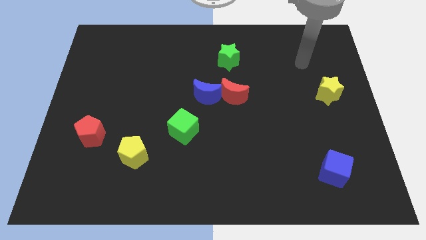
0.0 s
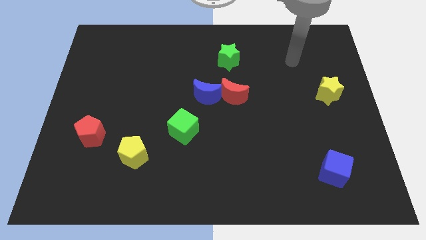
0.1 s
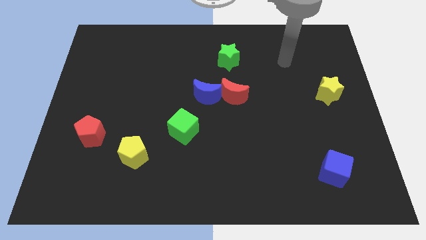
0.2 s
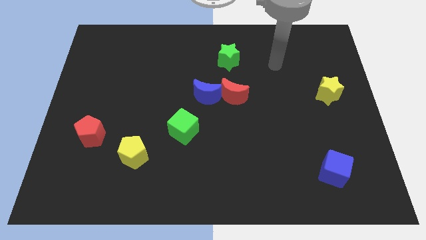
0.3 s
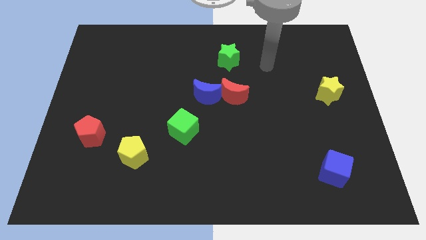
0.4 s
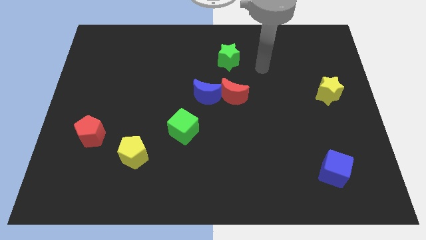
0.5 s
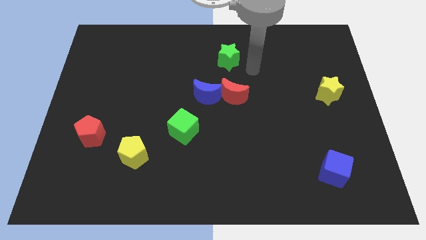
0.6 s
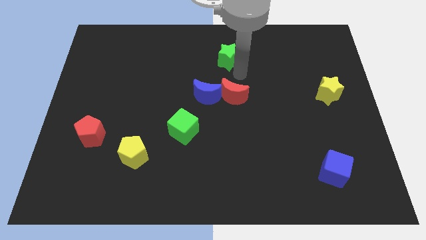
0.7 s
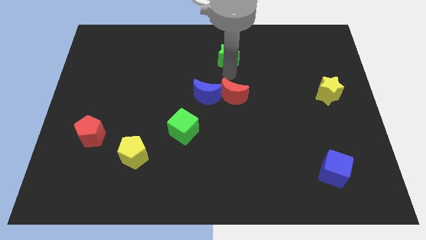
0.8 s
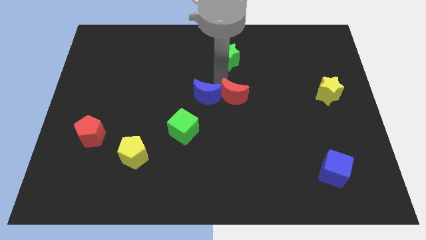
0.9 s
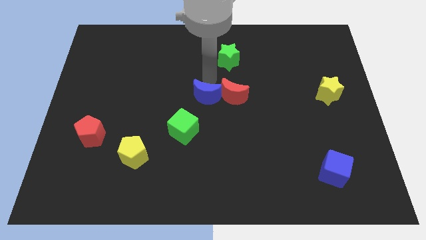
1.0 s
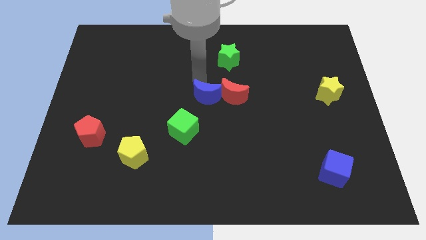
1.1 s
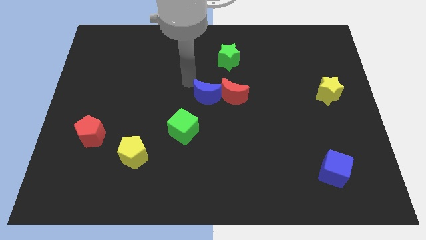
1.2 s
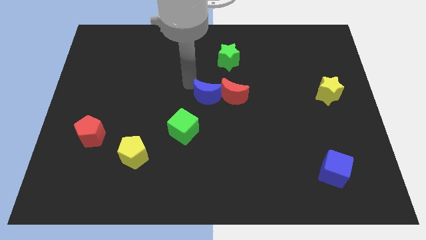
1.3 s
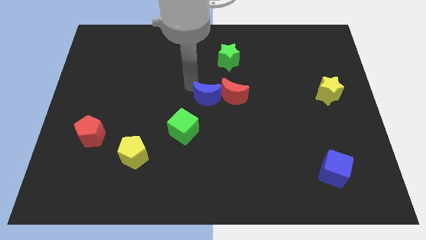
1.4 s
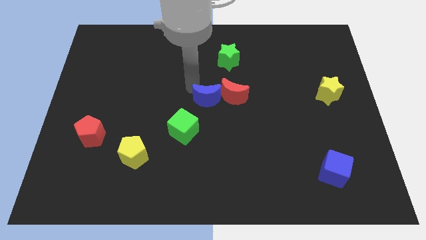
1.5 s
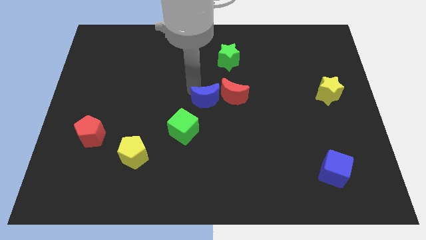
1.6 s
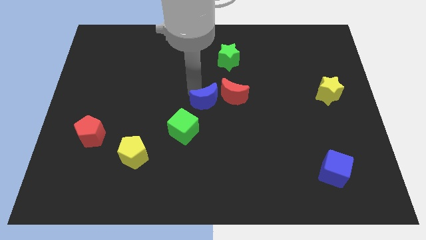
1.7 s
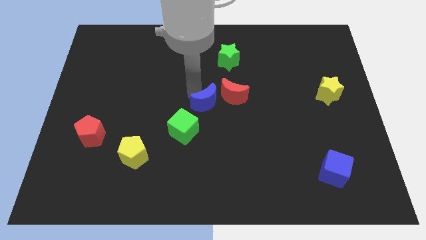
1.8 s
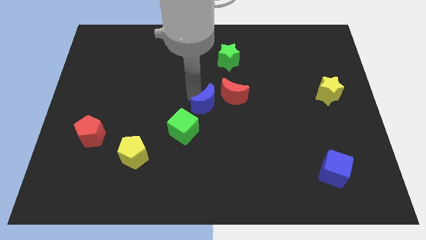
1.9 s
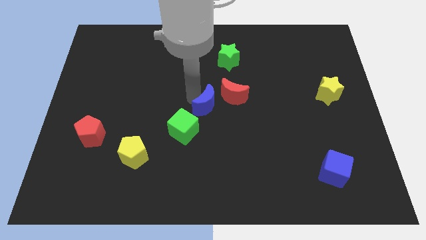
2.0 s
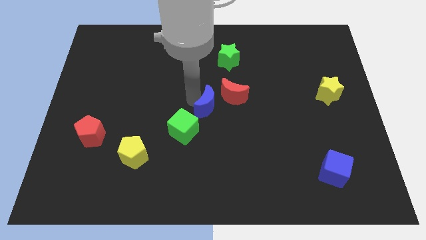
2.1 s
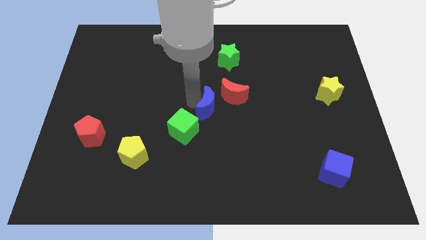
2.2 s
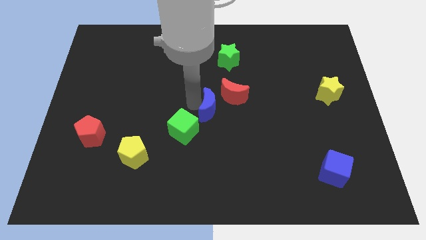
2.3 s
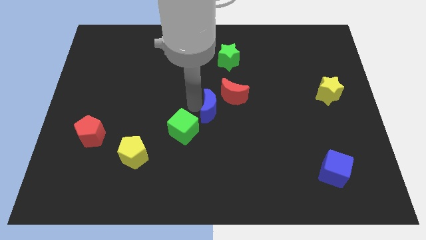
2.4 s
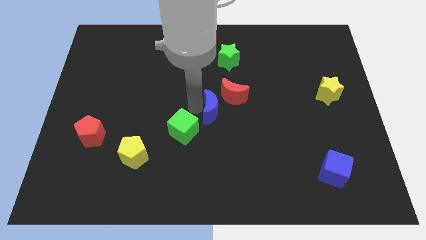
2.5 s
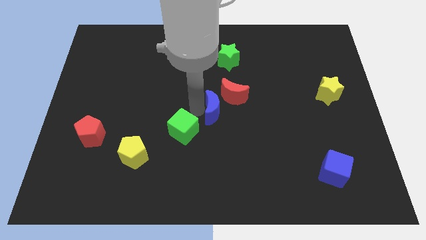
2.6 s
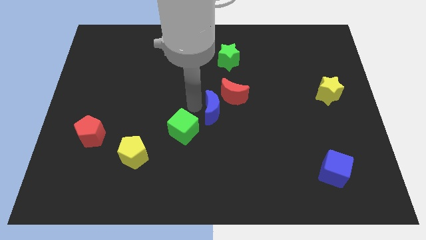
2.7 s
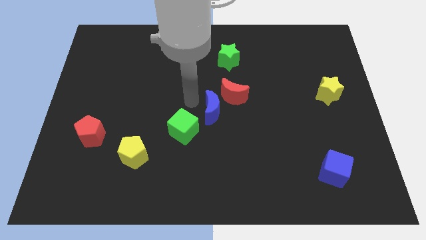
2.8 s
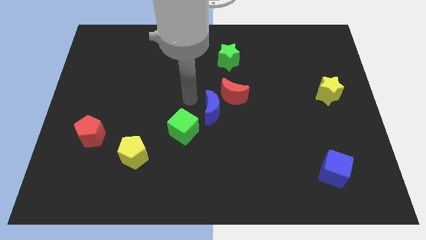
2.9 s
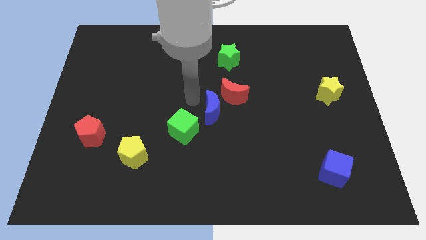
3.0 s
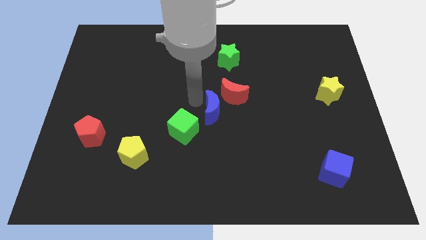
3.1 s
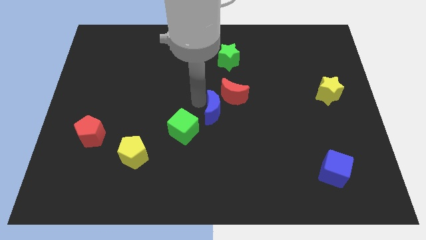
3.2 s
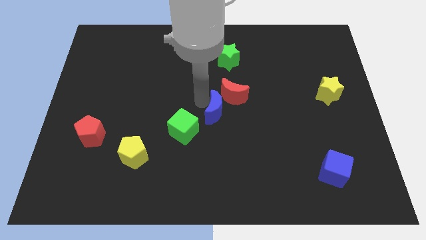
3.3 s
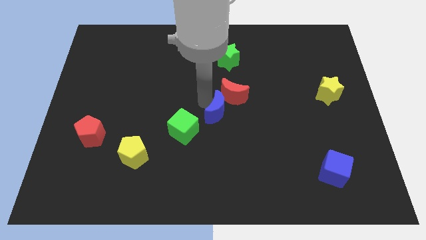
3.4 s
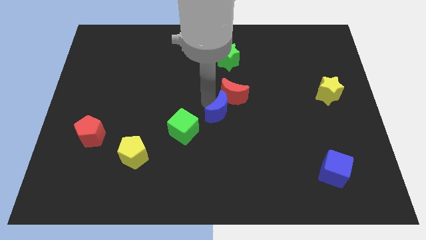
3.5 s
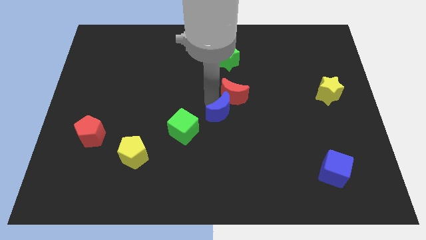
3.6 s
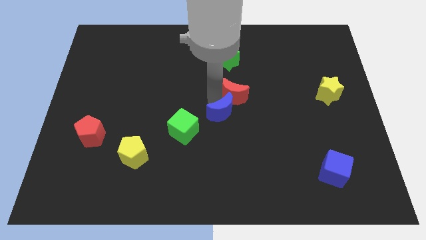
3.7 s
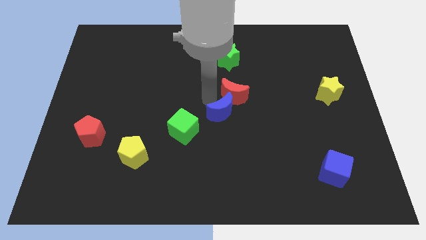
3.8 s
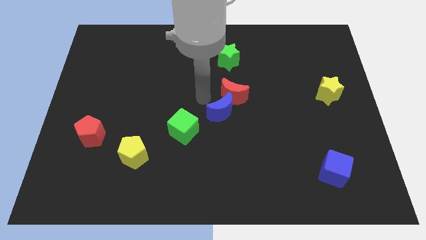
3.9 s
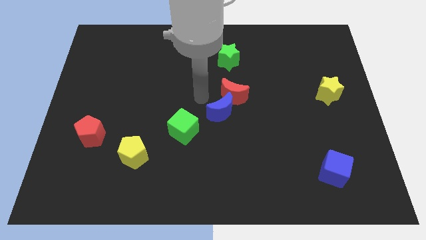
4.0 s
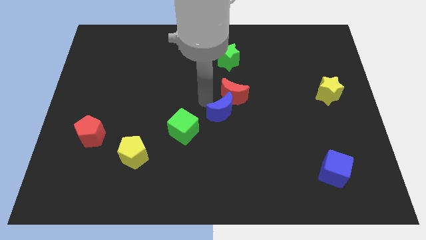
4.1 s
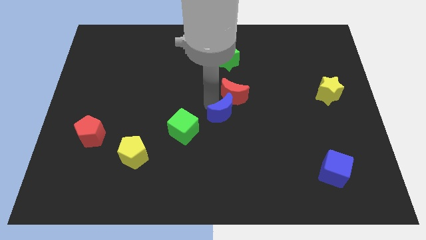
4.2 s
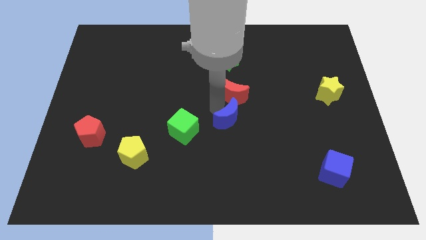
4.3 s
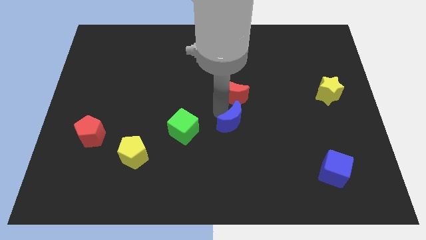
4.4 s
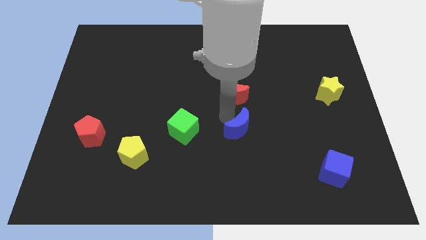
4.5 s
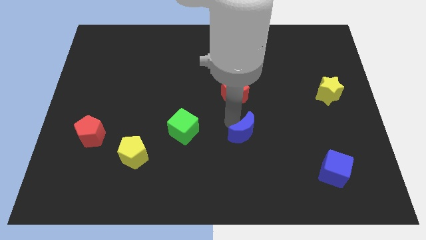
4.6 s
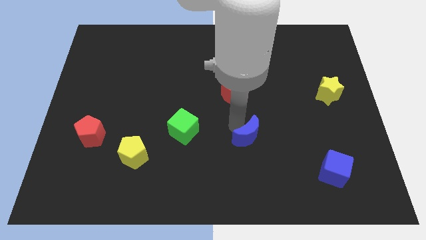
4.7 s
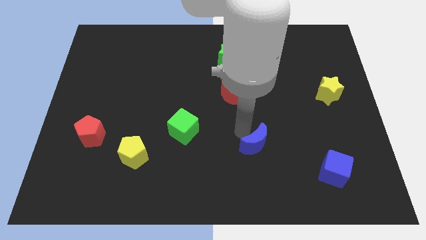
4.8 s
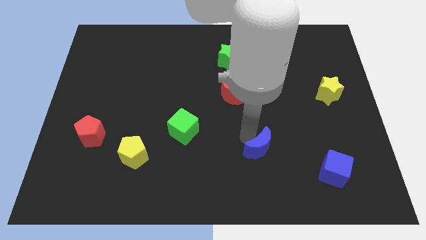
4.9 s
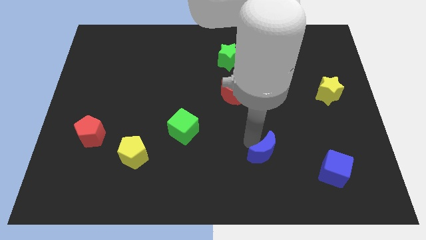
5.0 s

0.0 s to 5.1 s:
move the blue moon down and right

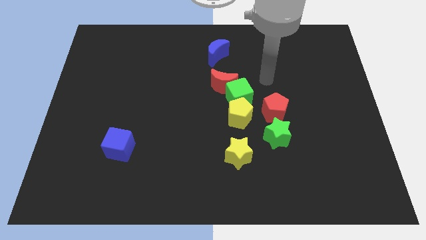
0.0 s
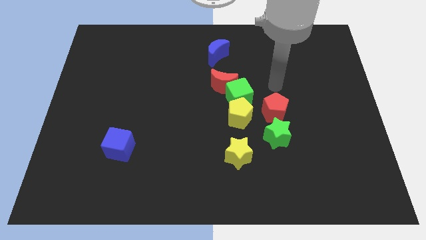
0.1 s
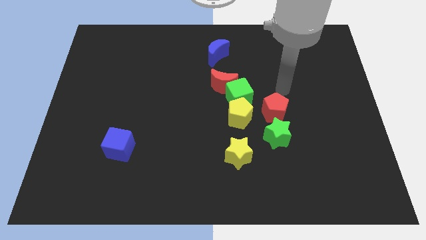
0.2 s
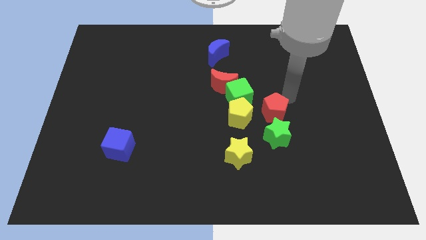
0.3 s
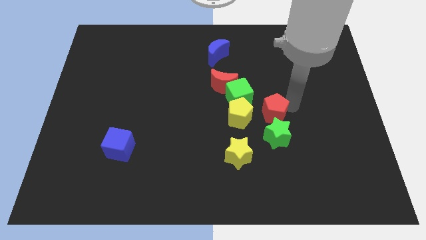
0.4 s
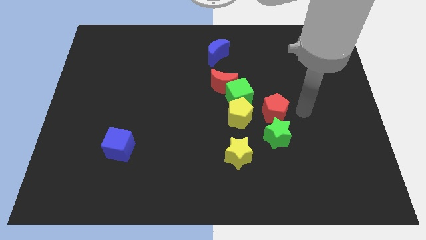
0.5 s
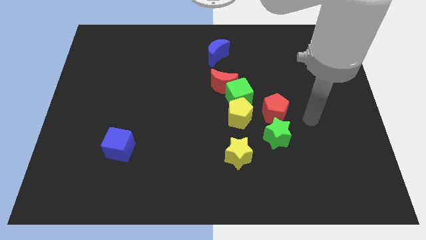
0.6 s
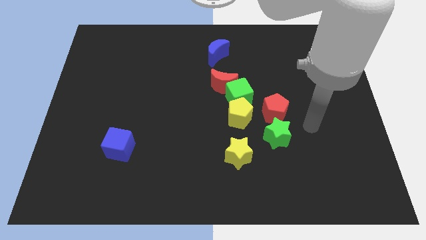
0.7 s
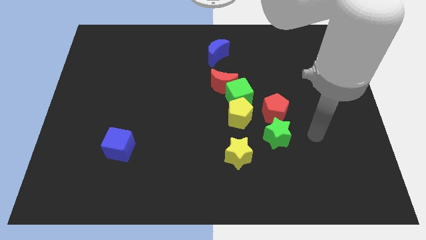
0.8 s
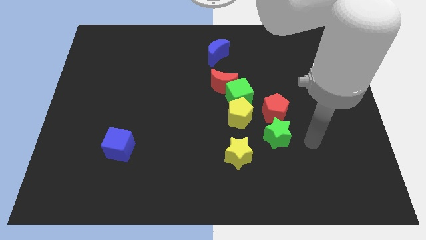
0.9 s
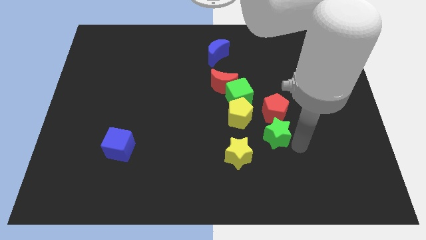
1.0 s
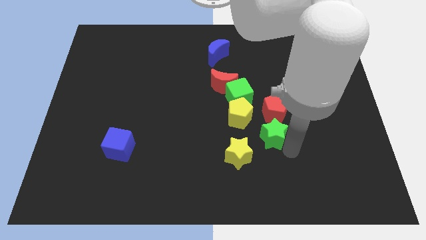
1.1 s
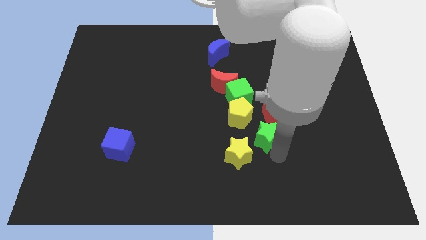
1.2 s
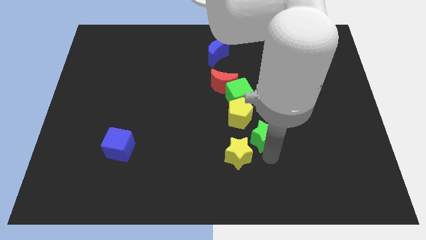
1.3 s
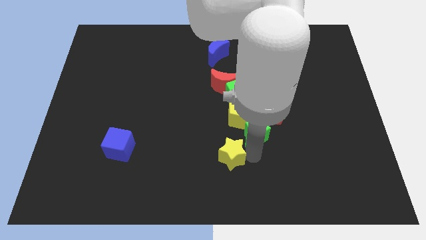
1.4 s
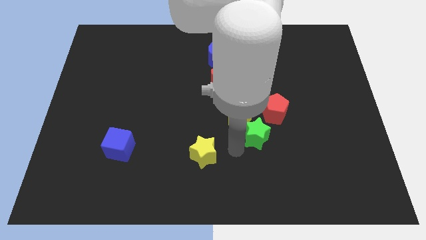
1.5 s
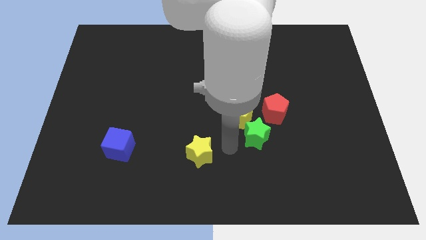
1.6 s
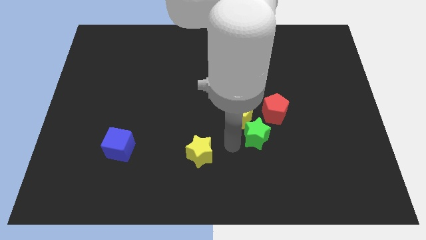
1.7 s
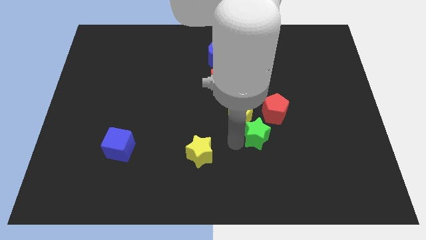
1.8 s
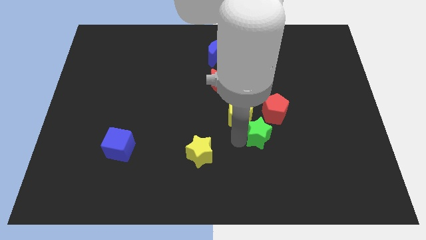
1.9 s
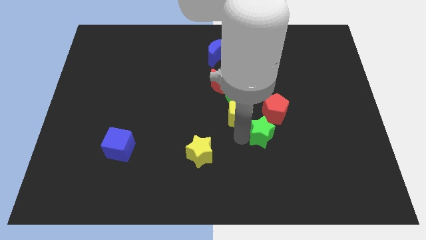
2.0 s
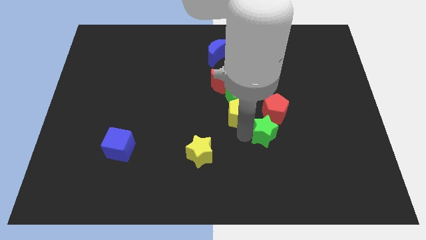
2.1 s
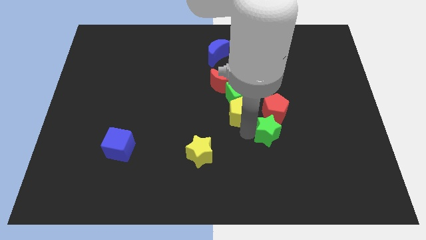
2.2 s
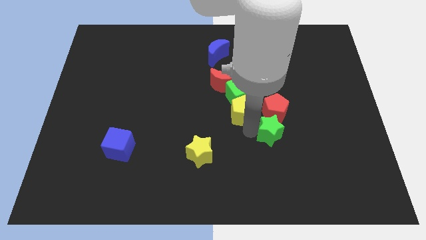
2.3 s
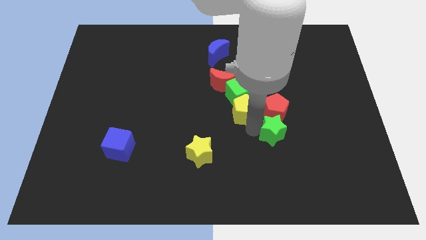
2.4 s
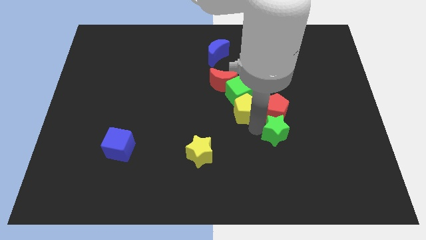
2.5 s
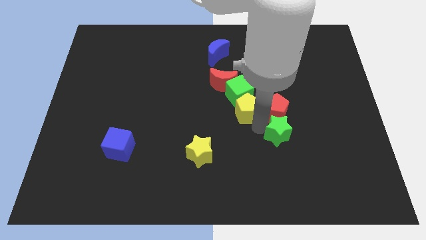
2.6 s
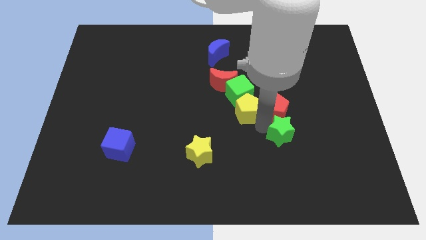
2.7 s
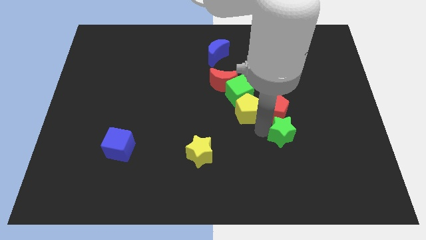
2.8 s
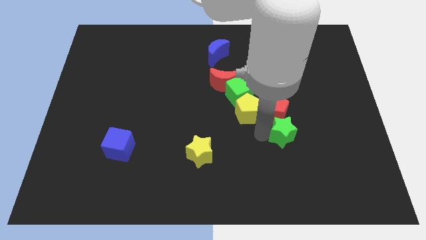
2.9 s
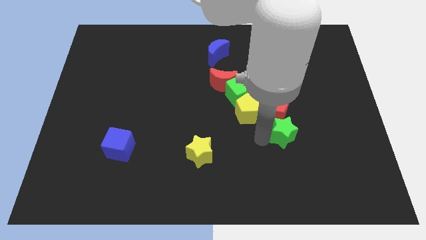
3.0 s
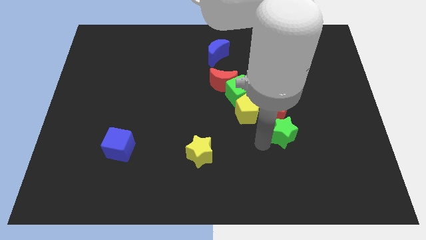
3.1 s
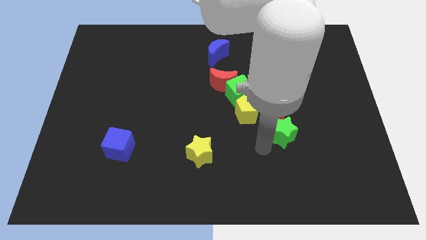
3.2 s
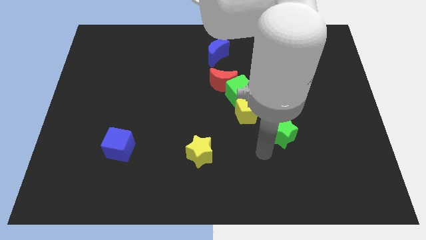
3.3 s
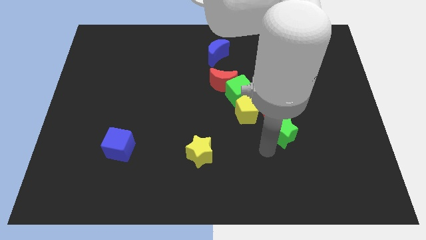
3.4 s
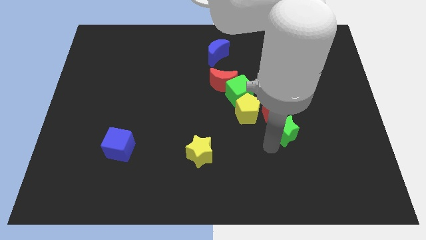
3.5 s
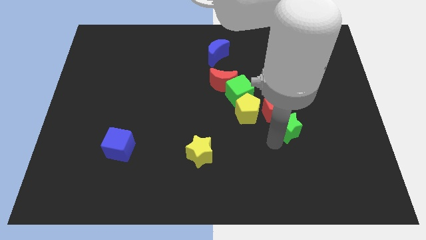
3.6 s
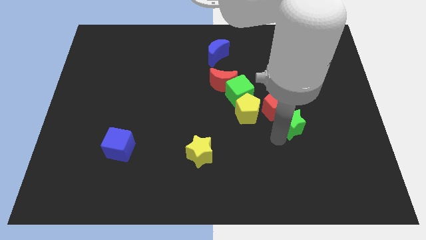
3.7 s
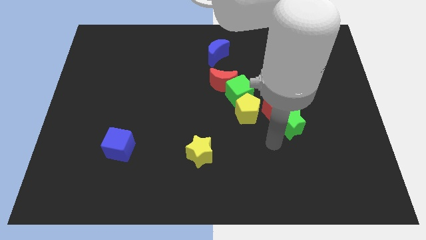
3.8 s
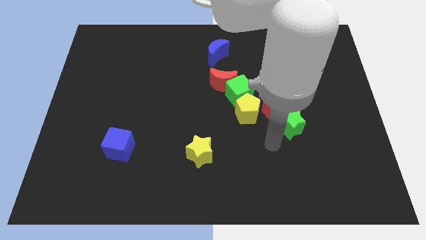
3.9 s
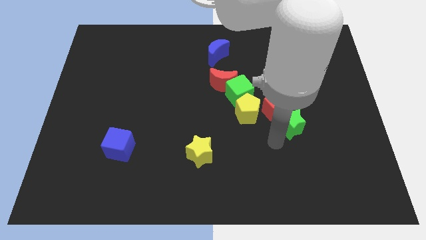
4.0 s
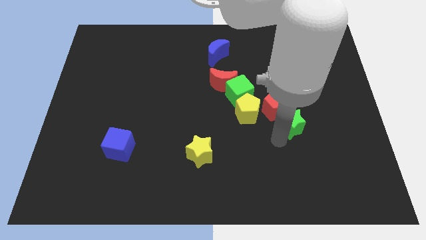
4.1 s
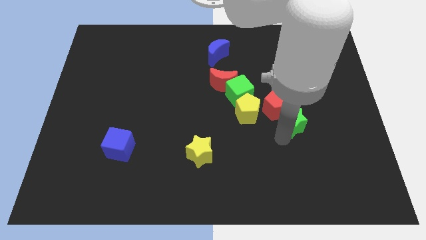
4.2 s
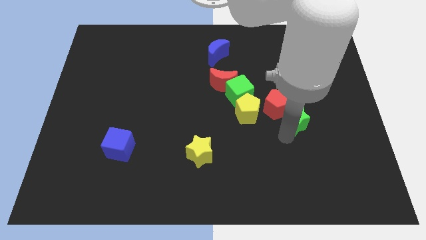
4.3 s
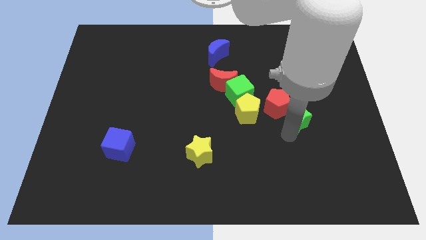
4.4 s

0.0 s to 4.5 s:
slightly push the green star diagonally up and to the right
